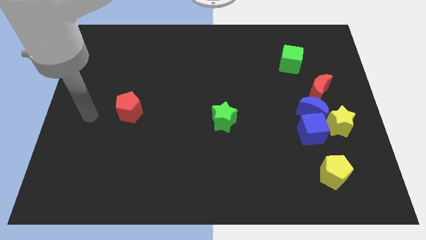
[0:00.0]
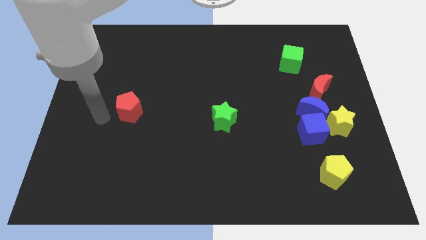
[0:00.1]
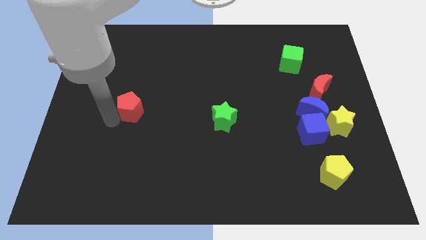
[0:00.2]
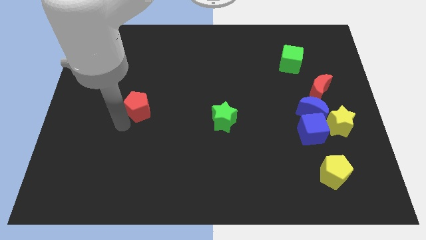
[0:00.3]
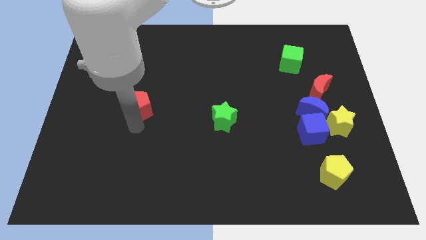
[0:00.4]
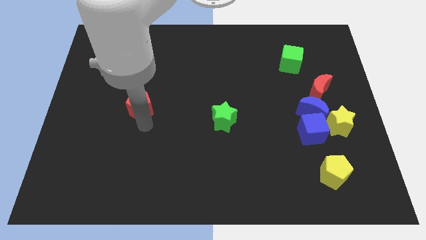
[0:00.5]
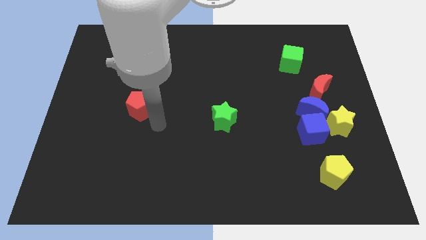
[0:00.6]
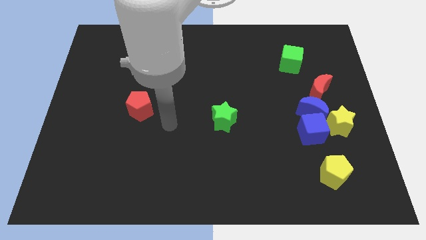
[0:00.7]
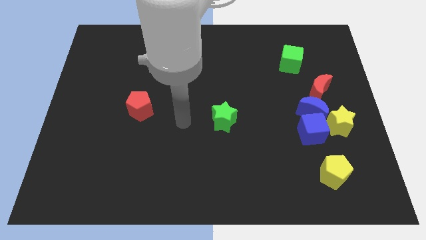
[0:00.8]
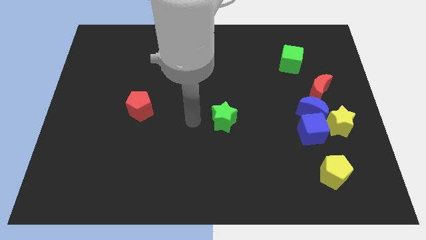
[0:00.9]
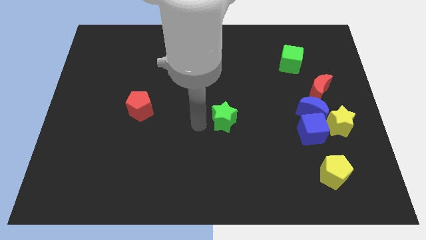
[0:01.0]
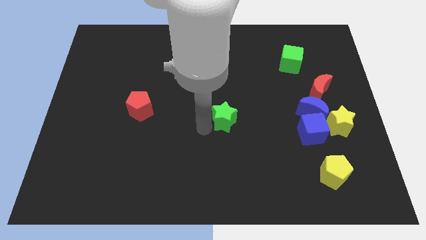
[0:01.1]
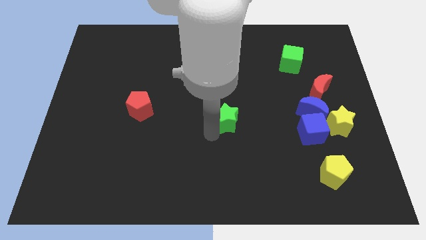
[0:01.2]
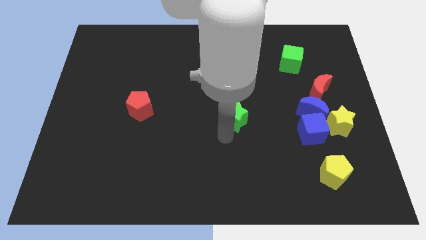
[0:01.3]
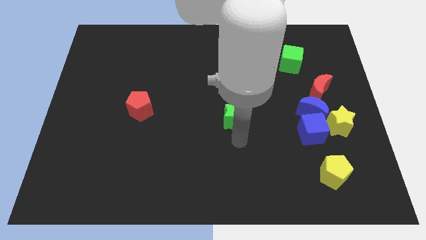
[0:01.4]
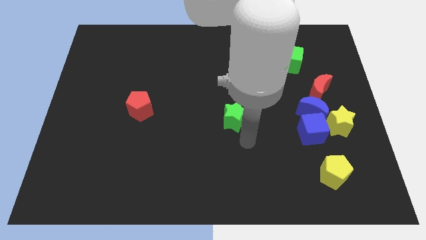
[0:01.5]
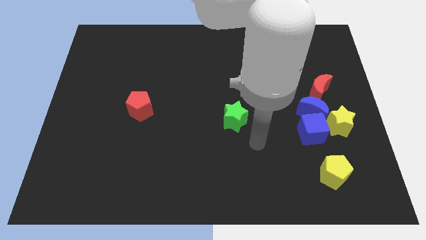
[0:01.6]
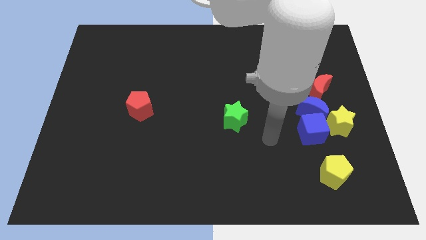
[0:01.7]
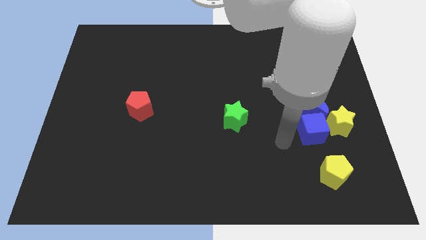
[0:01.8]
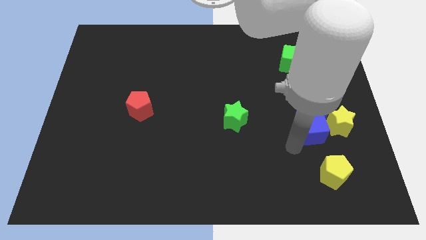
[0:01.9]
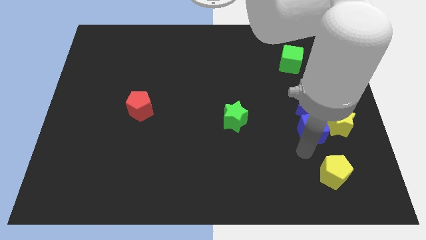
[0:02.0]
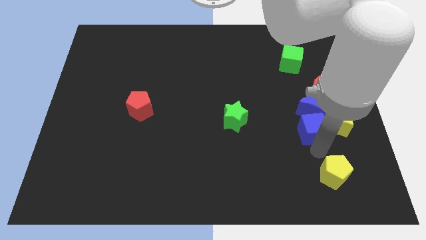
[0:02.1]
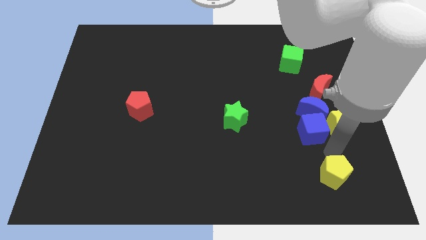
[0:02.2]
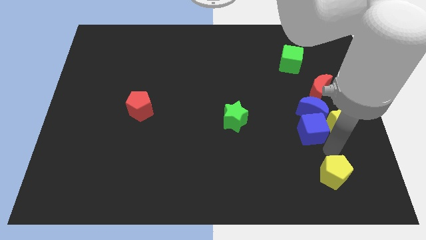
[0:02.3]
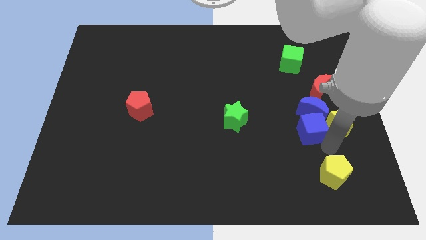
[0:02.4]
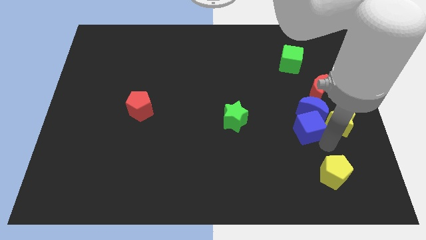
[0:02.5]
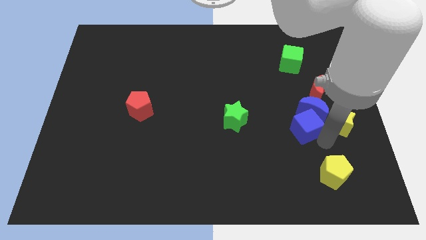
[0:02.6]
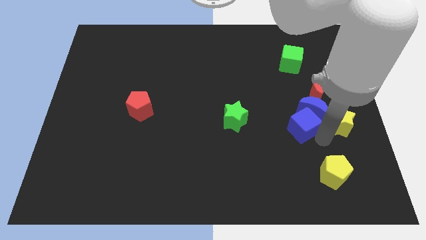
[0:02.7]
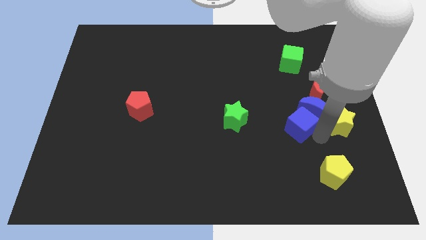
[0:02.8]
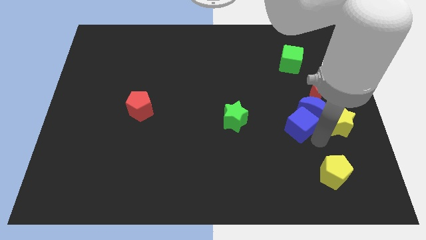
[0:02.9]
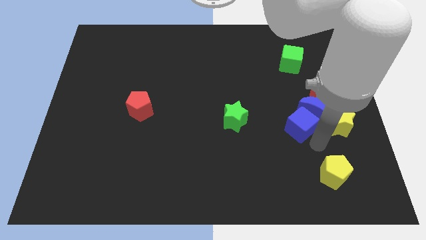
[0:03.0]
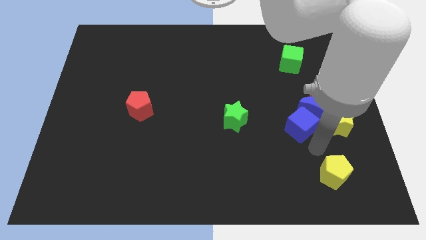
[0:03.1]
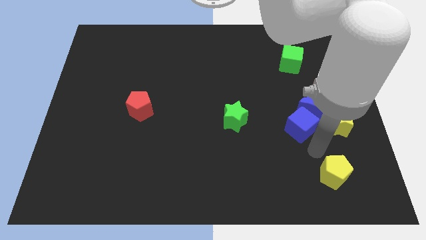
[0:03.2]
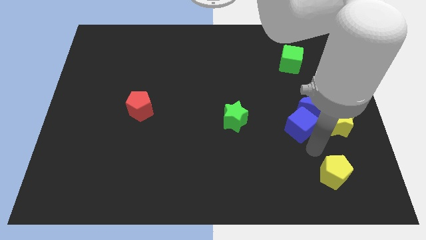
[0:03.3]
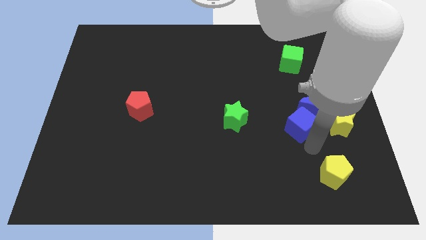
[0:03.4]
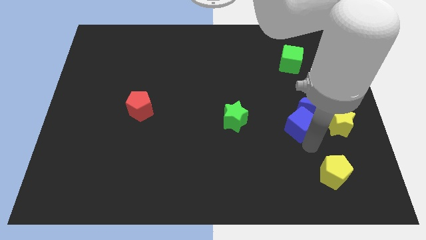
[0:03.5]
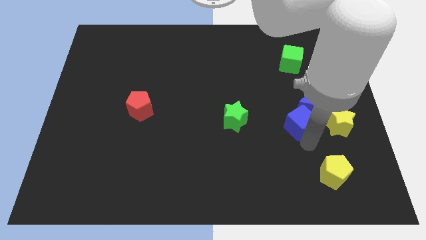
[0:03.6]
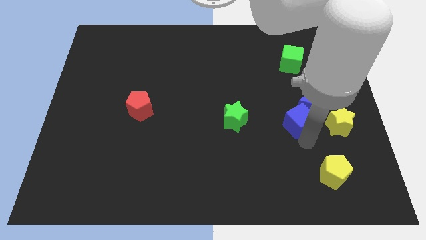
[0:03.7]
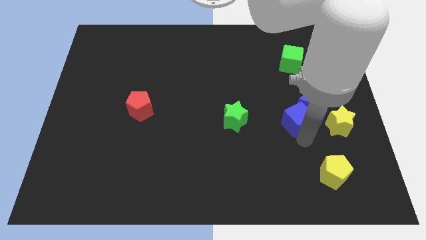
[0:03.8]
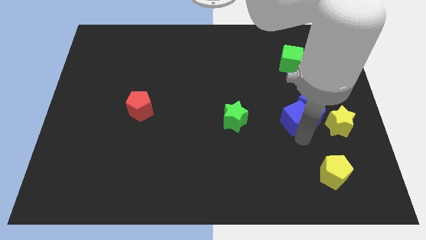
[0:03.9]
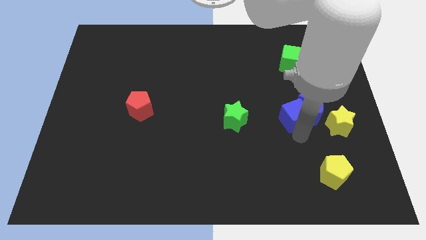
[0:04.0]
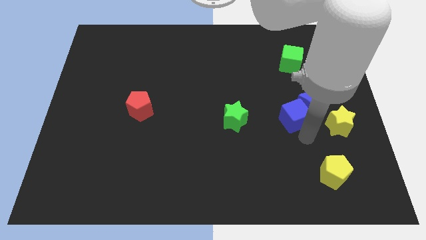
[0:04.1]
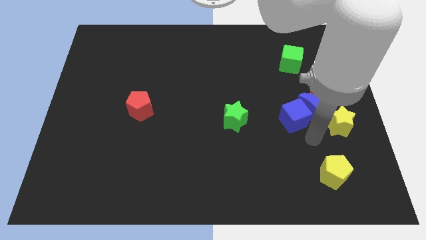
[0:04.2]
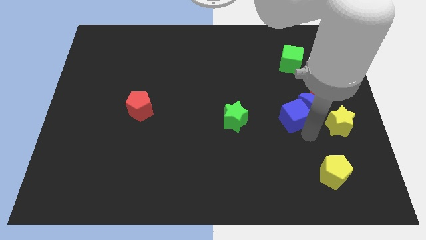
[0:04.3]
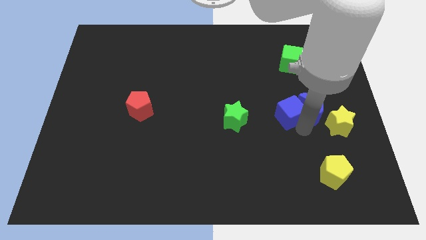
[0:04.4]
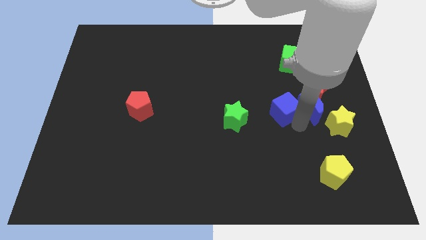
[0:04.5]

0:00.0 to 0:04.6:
move the blue cube slightly upwards and left

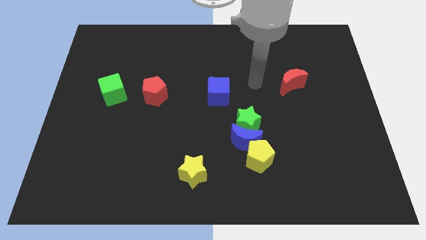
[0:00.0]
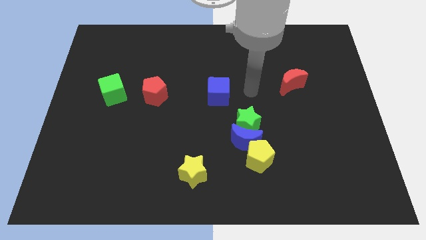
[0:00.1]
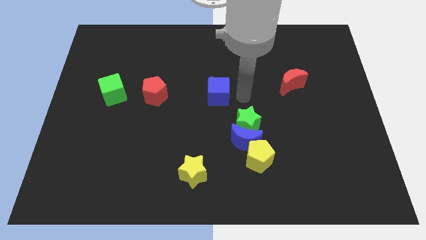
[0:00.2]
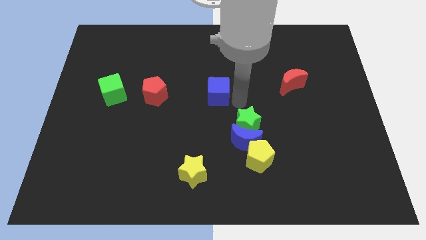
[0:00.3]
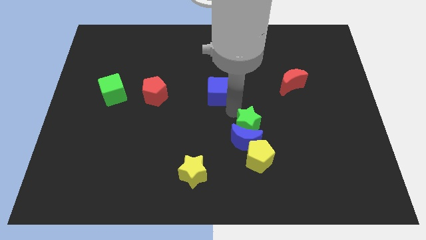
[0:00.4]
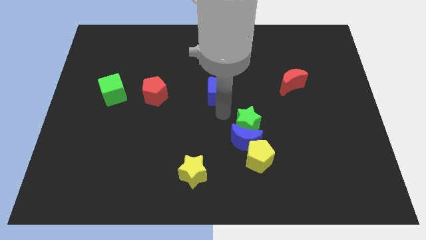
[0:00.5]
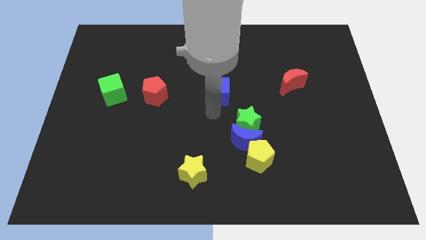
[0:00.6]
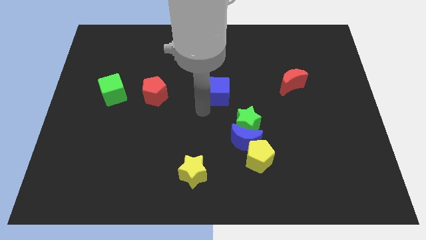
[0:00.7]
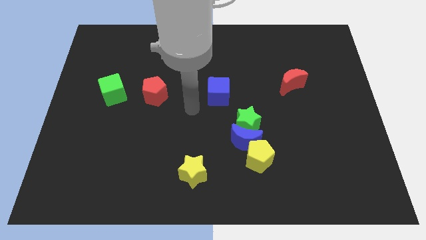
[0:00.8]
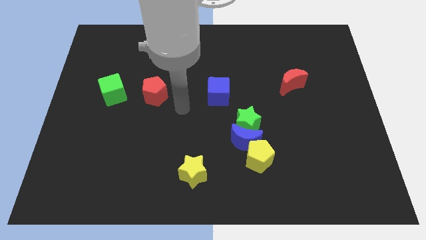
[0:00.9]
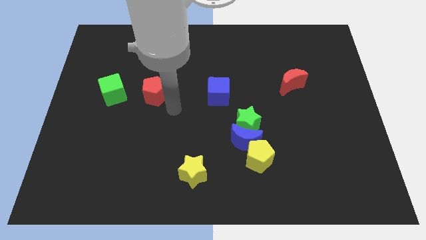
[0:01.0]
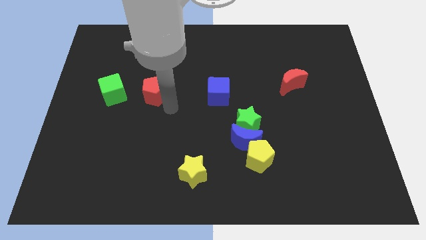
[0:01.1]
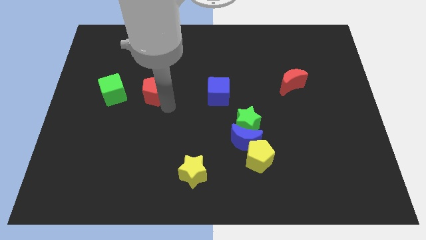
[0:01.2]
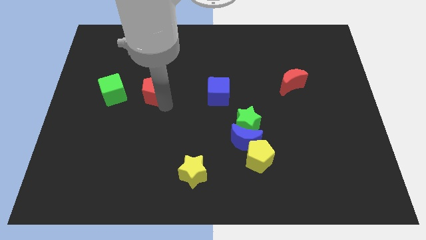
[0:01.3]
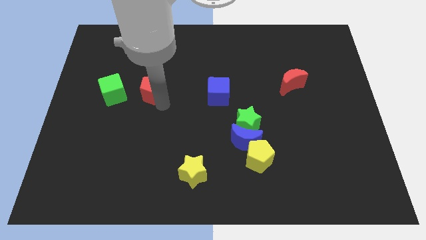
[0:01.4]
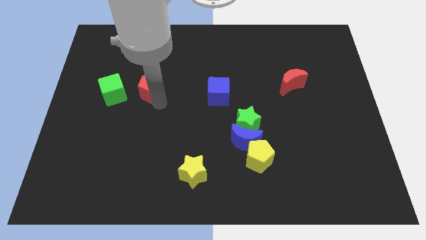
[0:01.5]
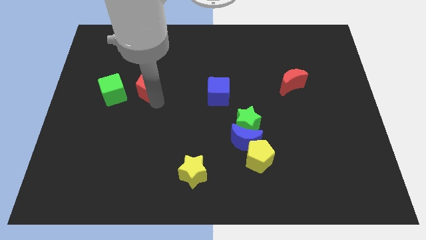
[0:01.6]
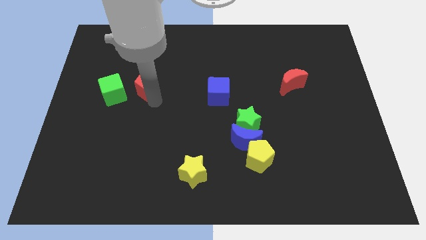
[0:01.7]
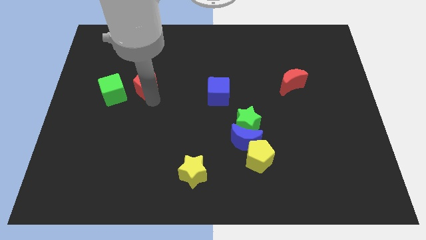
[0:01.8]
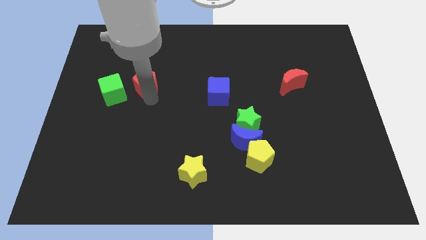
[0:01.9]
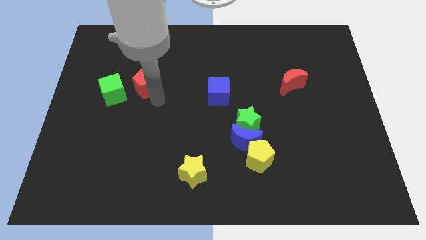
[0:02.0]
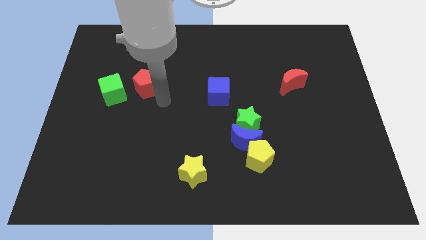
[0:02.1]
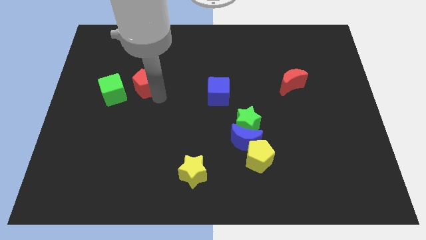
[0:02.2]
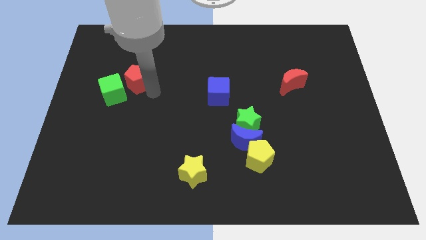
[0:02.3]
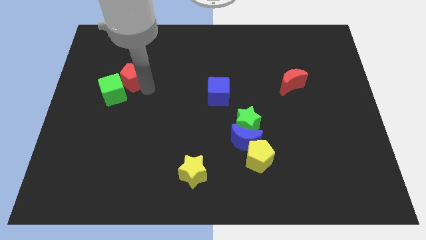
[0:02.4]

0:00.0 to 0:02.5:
move the red pentagon a little up and left
